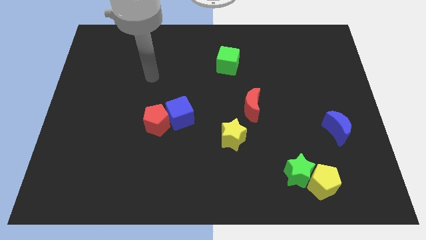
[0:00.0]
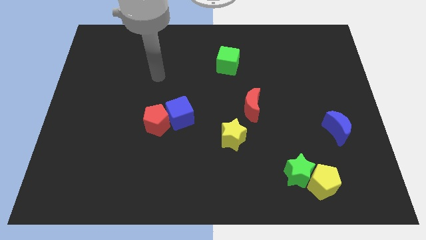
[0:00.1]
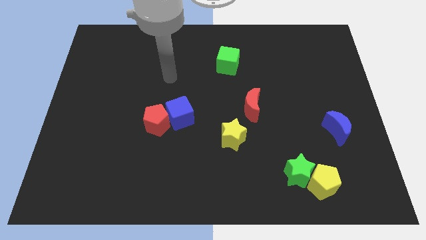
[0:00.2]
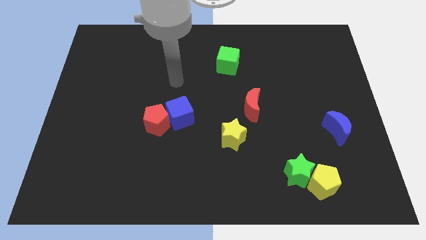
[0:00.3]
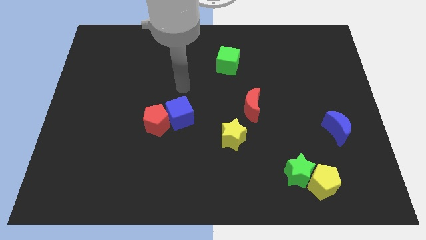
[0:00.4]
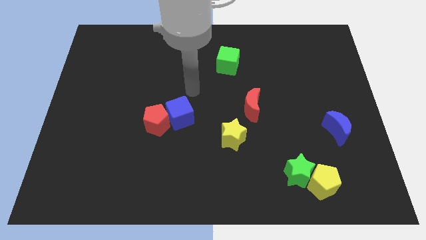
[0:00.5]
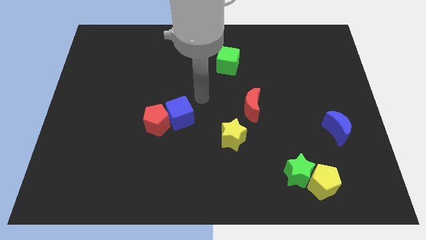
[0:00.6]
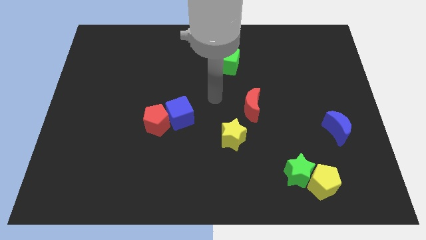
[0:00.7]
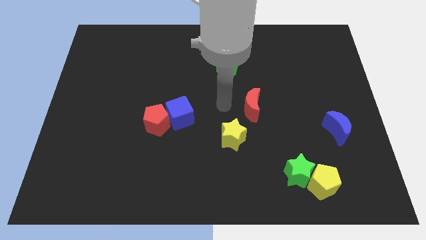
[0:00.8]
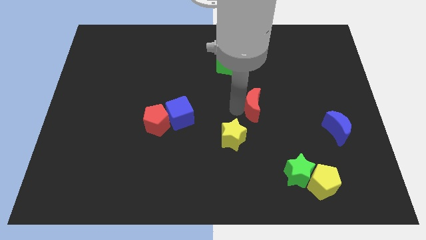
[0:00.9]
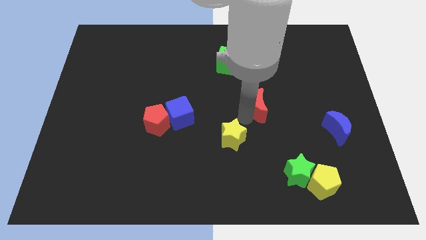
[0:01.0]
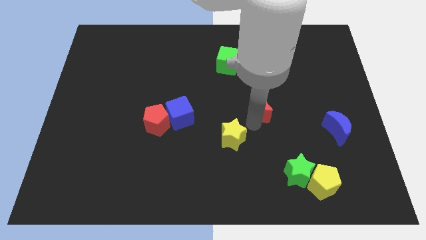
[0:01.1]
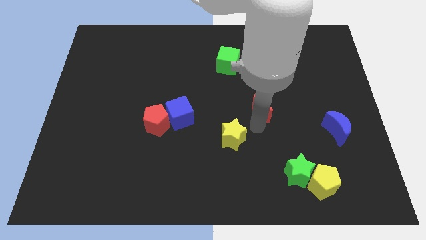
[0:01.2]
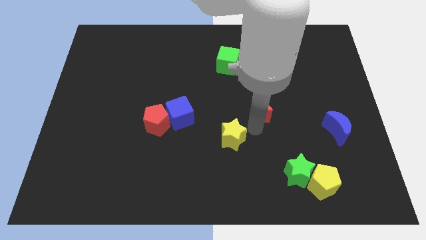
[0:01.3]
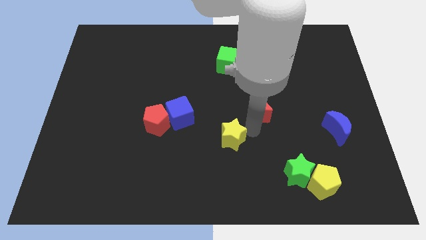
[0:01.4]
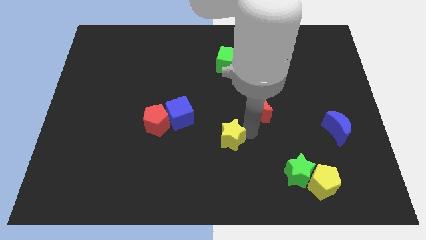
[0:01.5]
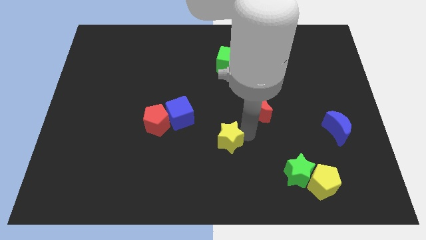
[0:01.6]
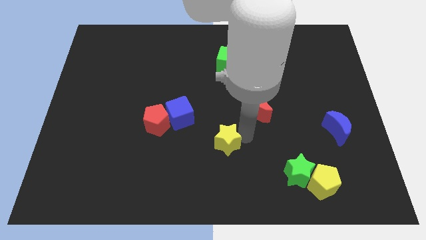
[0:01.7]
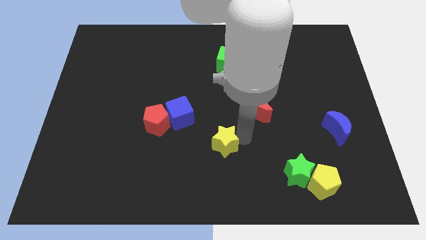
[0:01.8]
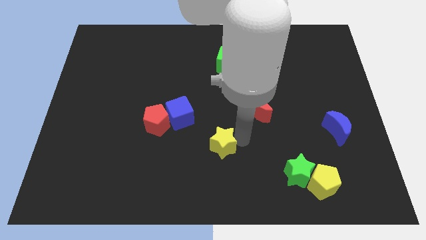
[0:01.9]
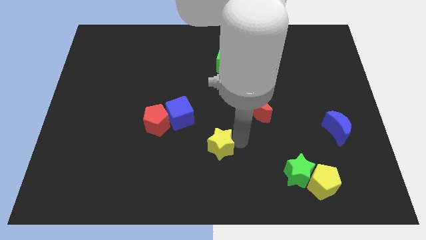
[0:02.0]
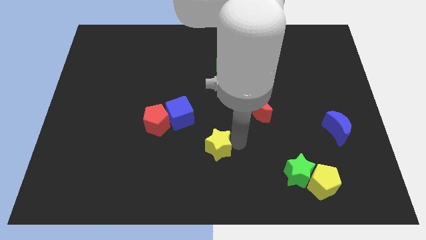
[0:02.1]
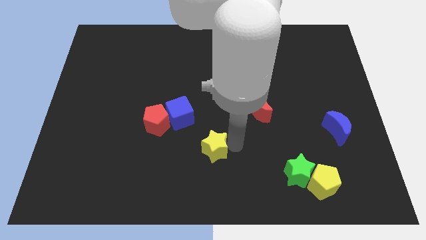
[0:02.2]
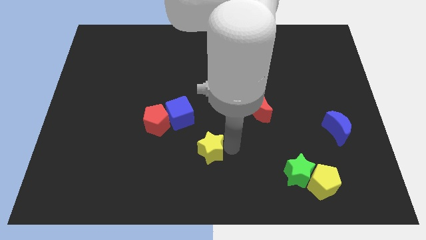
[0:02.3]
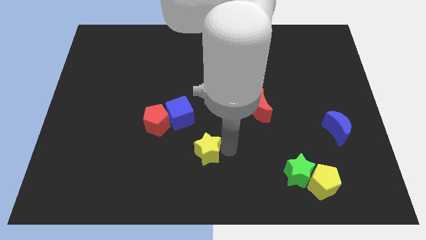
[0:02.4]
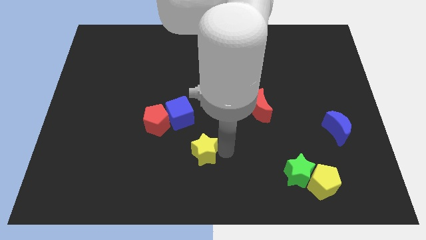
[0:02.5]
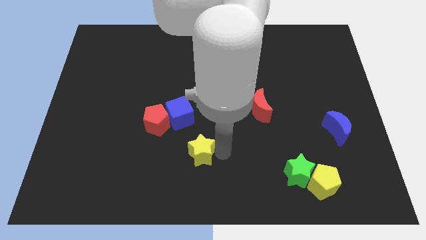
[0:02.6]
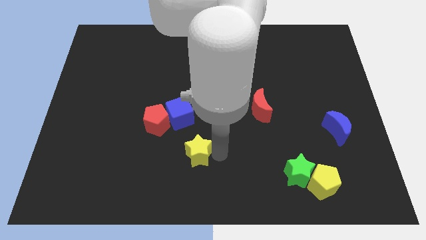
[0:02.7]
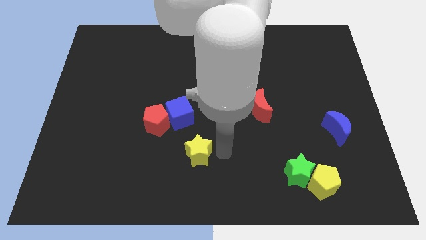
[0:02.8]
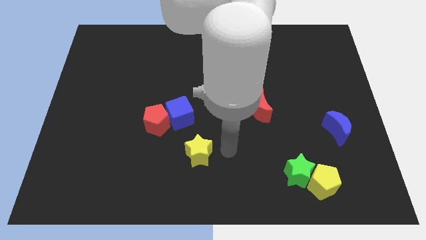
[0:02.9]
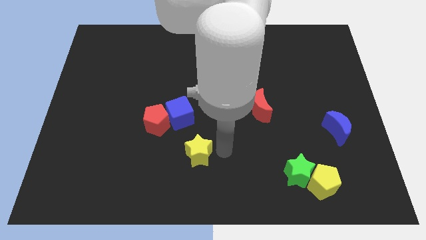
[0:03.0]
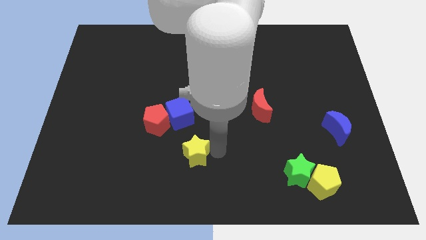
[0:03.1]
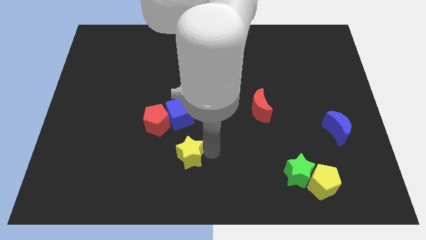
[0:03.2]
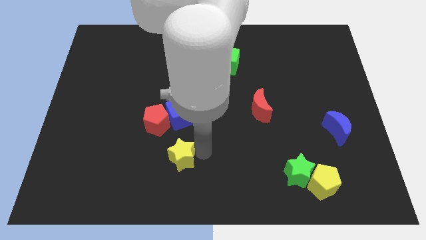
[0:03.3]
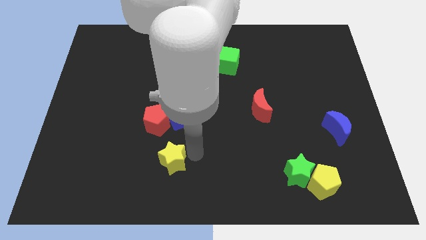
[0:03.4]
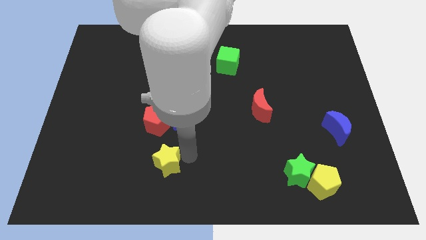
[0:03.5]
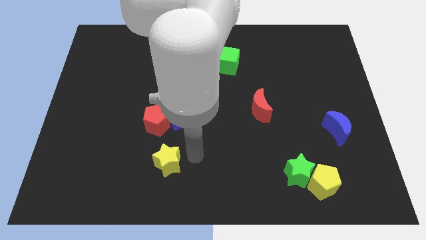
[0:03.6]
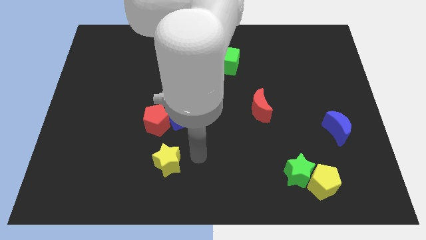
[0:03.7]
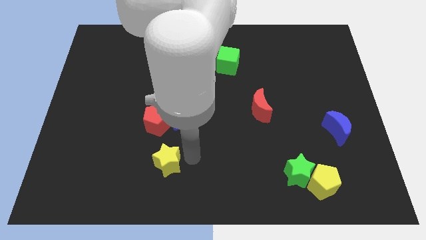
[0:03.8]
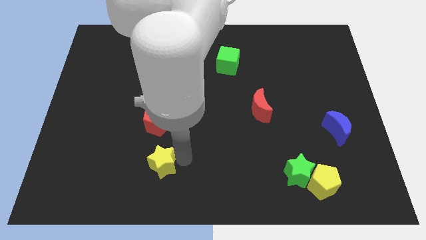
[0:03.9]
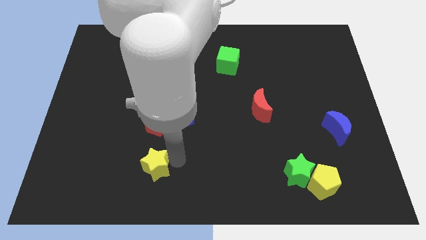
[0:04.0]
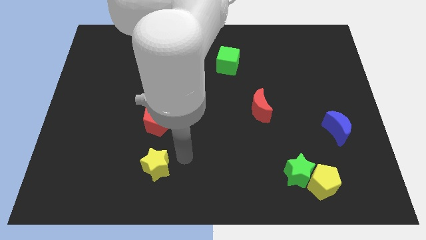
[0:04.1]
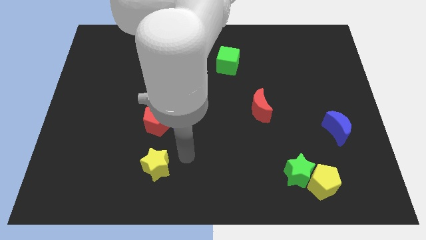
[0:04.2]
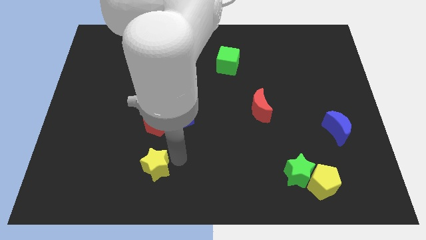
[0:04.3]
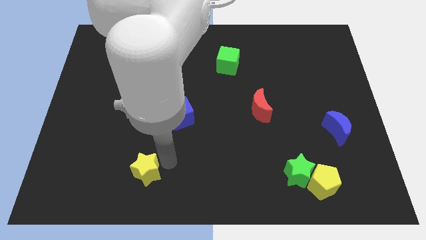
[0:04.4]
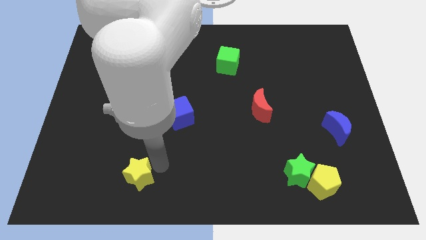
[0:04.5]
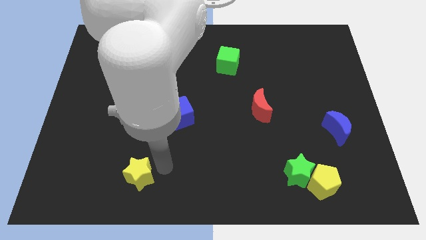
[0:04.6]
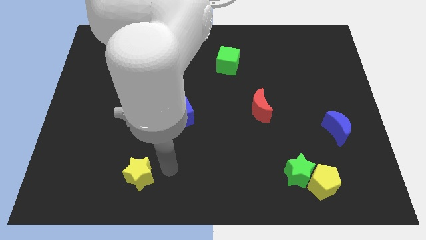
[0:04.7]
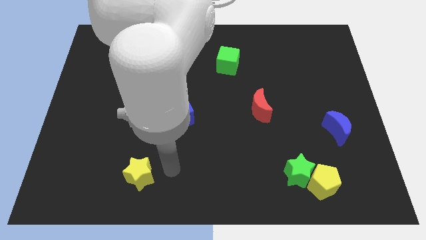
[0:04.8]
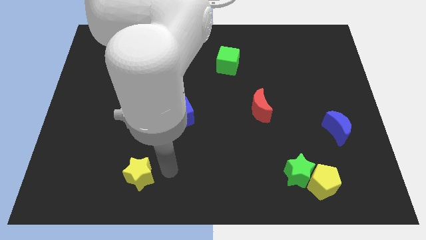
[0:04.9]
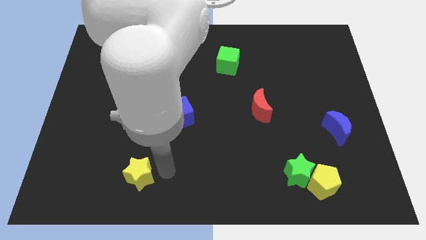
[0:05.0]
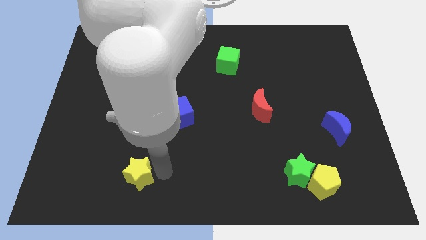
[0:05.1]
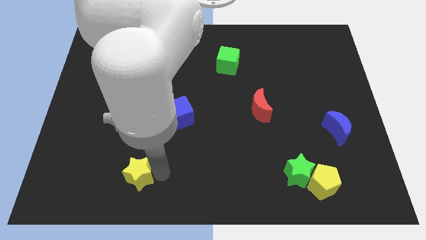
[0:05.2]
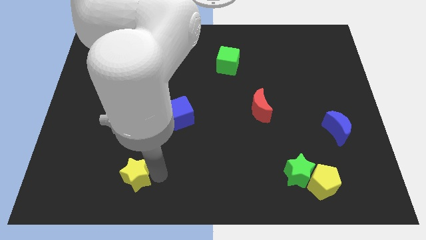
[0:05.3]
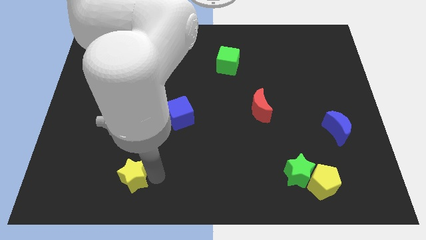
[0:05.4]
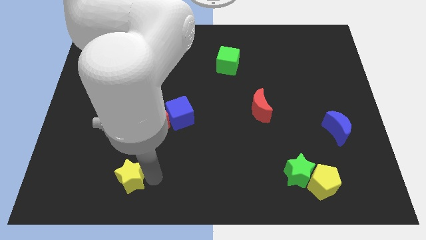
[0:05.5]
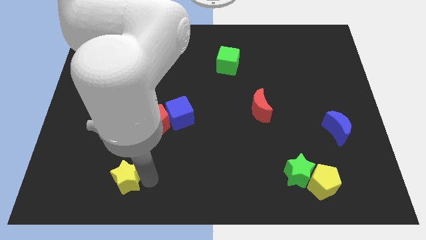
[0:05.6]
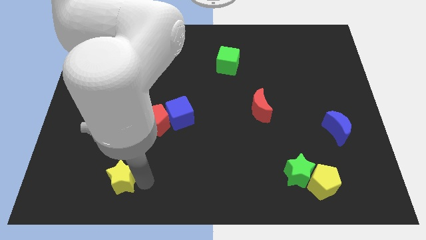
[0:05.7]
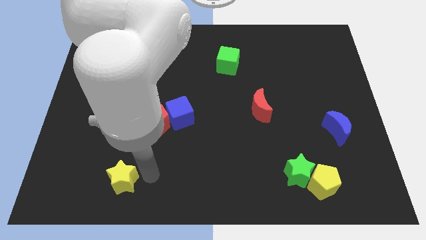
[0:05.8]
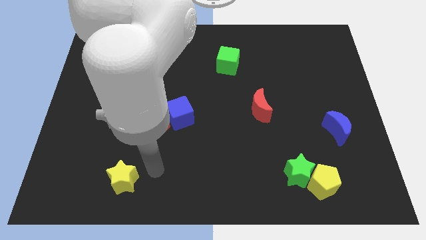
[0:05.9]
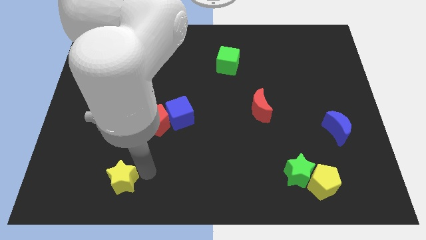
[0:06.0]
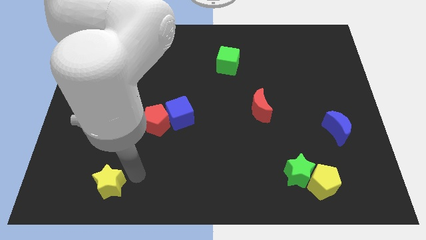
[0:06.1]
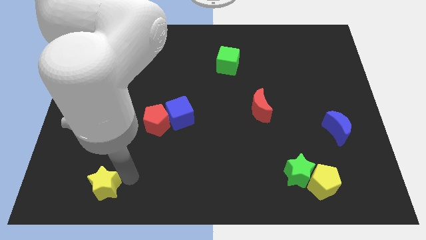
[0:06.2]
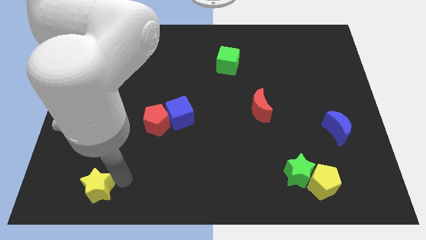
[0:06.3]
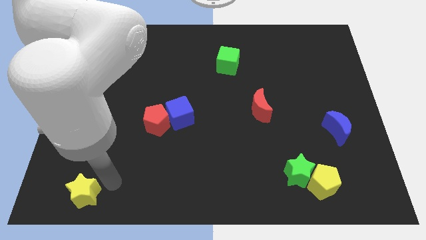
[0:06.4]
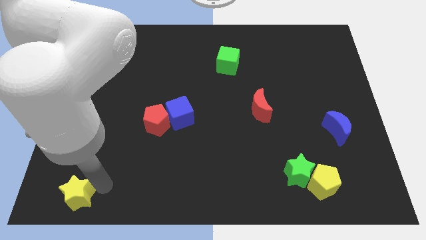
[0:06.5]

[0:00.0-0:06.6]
push the yellow star to the bottom left corner
